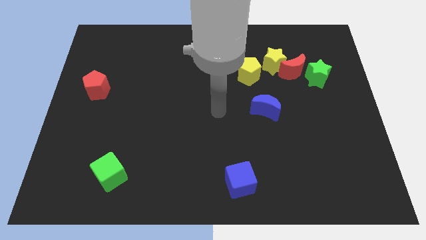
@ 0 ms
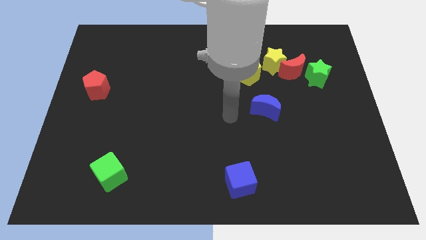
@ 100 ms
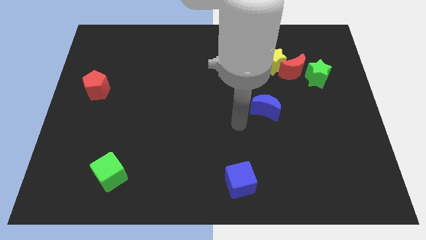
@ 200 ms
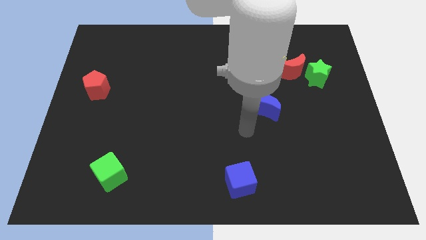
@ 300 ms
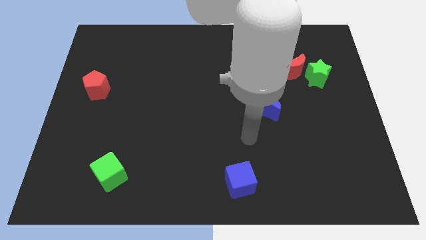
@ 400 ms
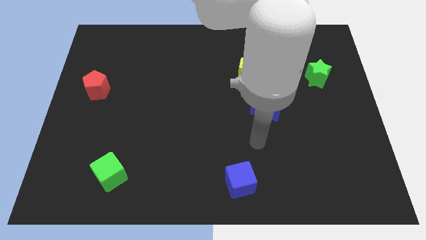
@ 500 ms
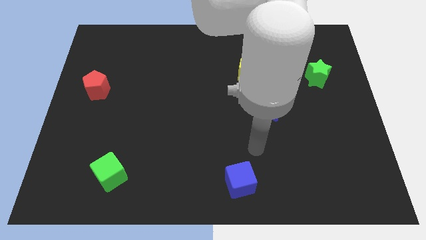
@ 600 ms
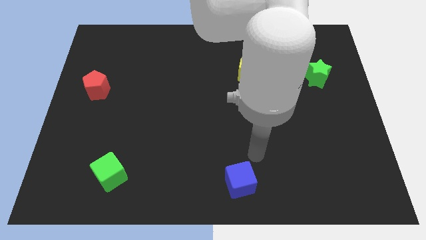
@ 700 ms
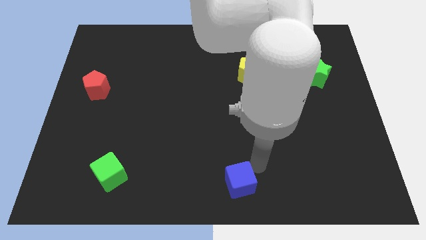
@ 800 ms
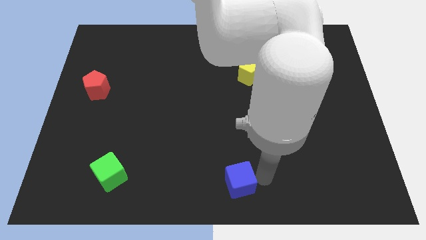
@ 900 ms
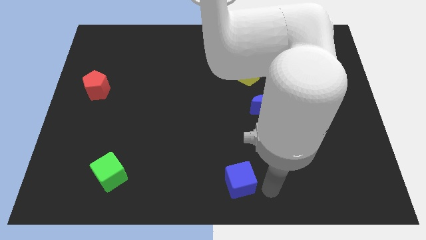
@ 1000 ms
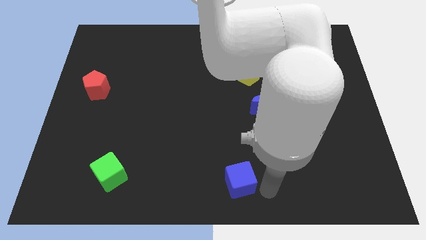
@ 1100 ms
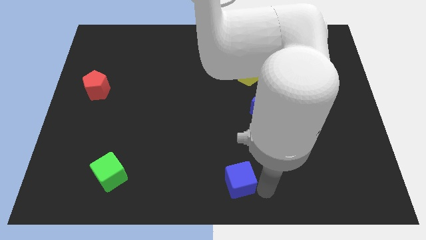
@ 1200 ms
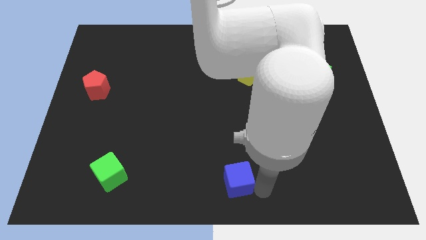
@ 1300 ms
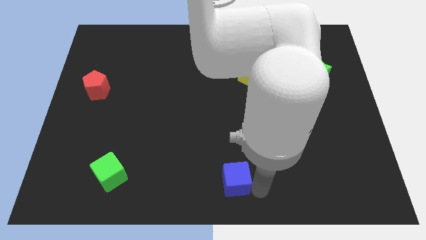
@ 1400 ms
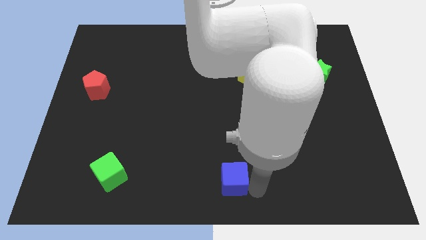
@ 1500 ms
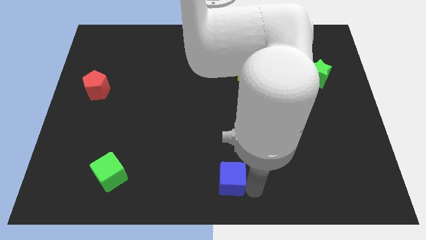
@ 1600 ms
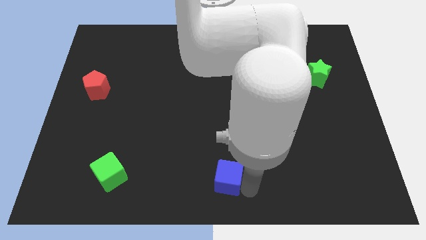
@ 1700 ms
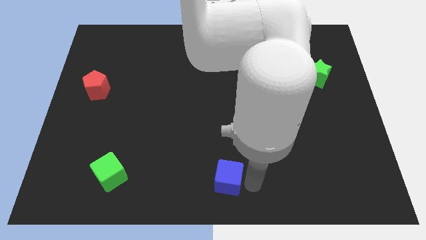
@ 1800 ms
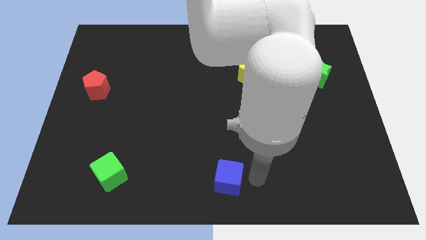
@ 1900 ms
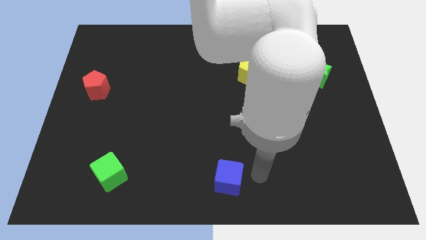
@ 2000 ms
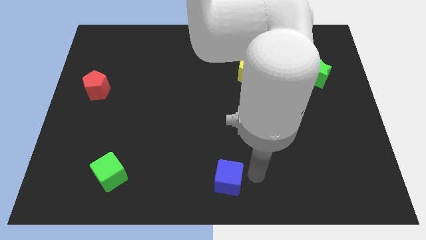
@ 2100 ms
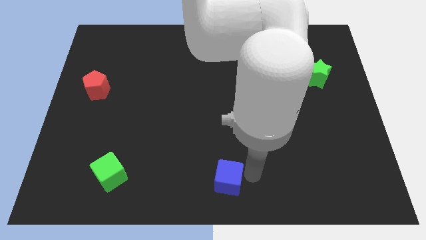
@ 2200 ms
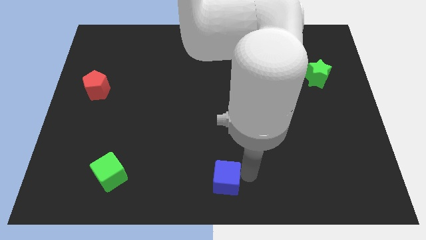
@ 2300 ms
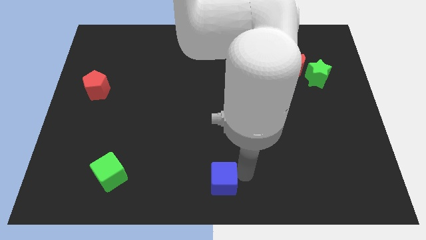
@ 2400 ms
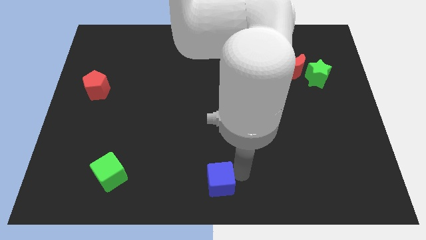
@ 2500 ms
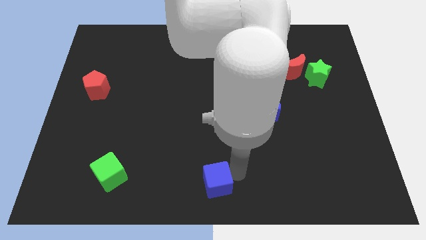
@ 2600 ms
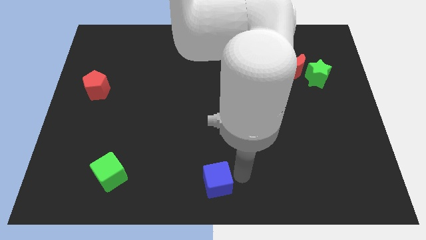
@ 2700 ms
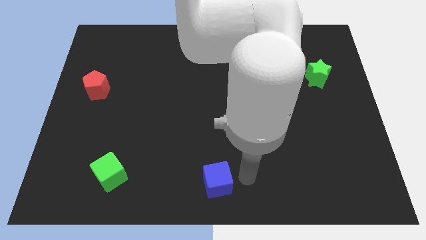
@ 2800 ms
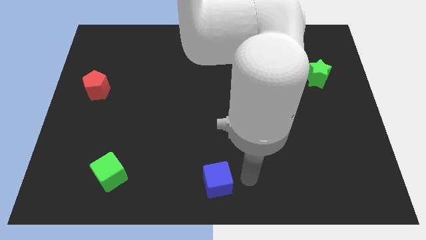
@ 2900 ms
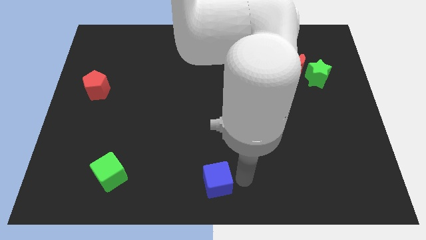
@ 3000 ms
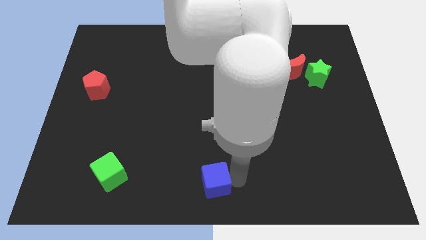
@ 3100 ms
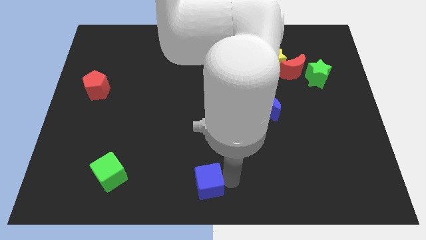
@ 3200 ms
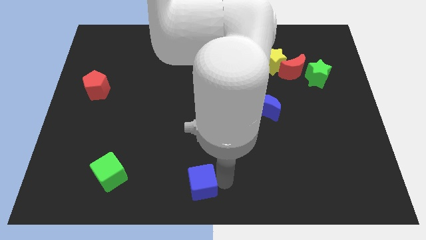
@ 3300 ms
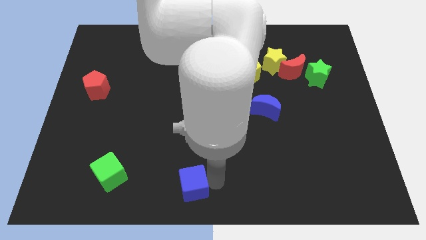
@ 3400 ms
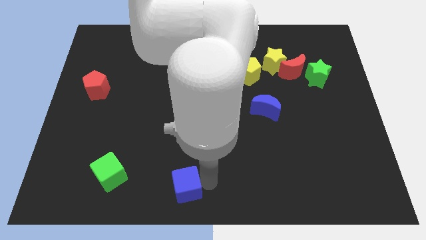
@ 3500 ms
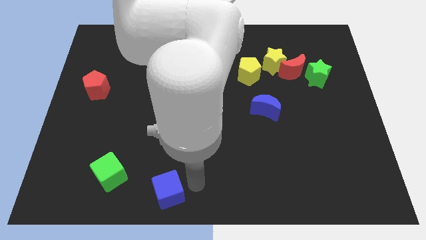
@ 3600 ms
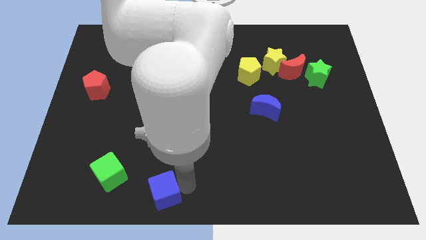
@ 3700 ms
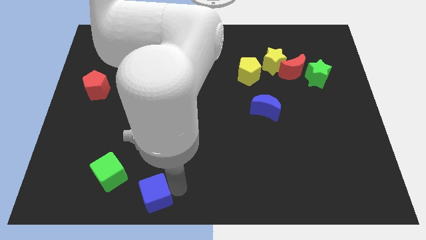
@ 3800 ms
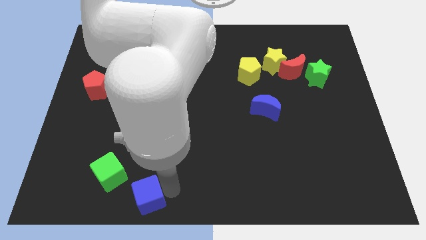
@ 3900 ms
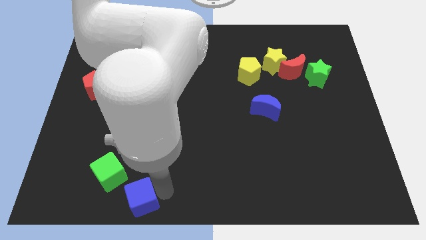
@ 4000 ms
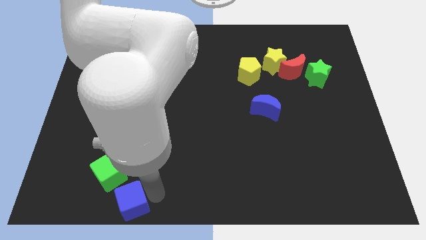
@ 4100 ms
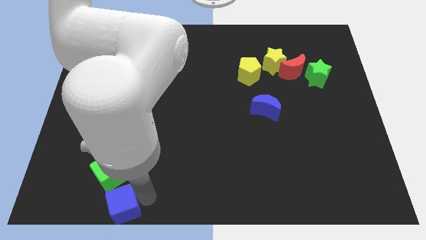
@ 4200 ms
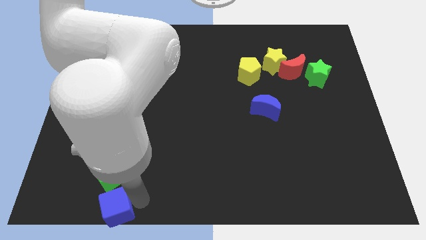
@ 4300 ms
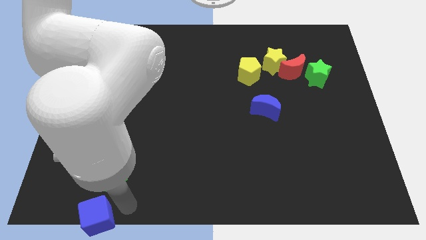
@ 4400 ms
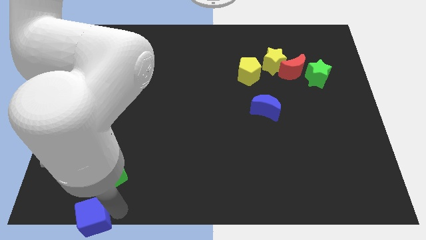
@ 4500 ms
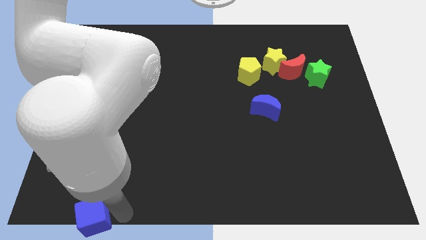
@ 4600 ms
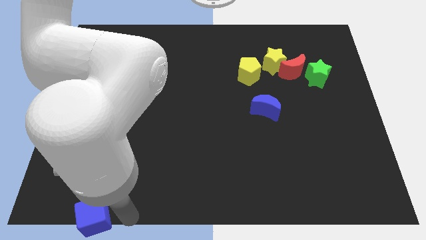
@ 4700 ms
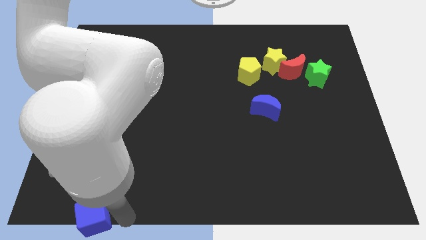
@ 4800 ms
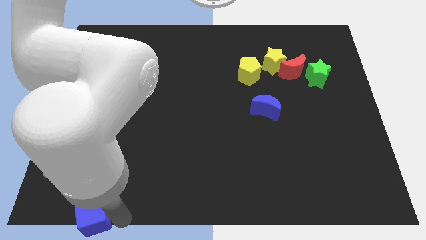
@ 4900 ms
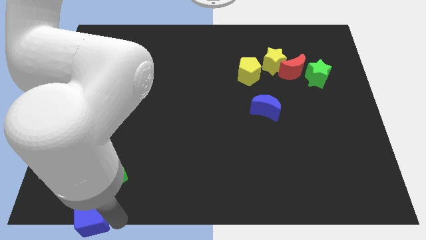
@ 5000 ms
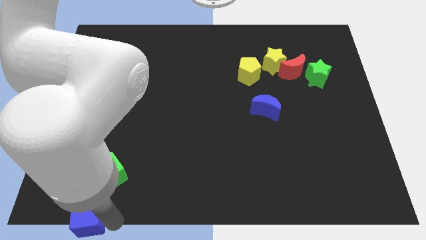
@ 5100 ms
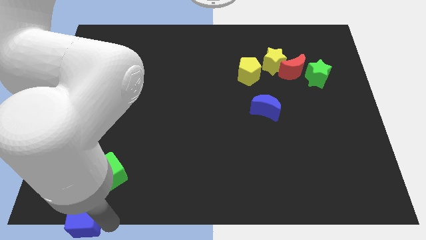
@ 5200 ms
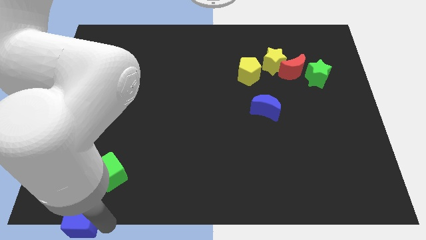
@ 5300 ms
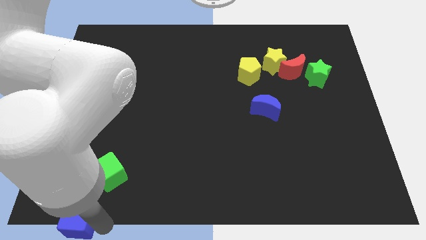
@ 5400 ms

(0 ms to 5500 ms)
move the blue cube to the bottom left of the board

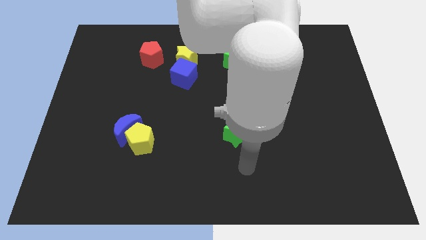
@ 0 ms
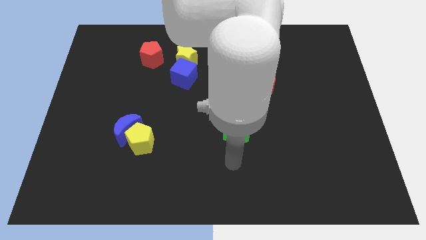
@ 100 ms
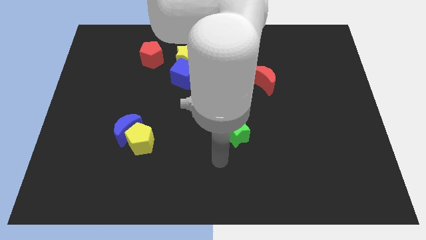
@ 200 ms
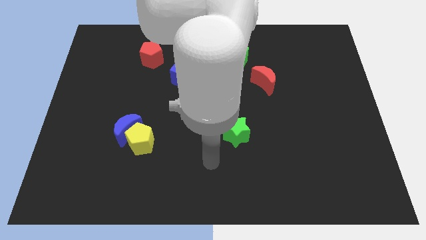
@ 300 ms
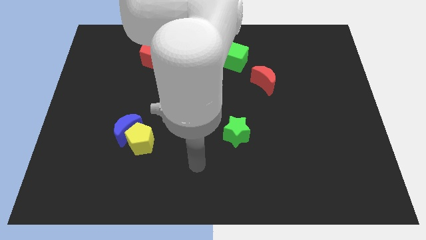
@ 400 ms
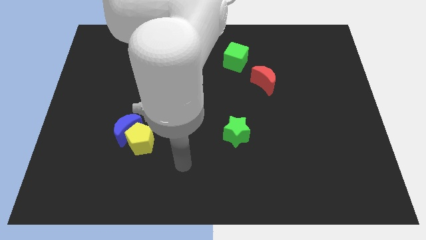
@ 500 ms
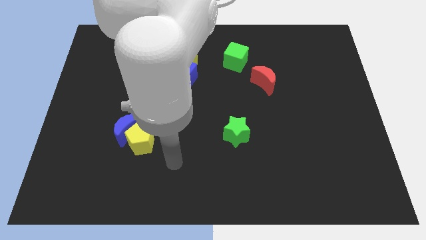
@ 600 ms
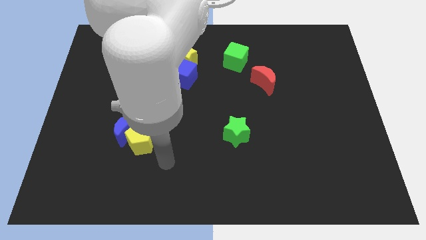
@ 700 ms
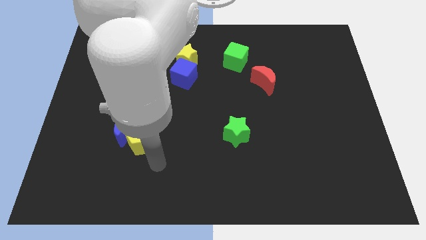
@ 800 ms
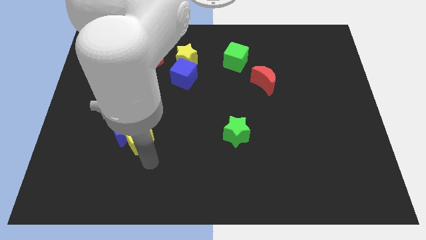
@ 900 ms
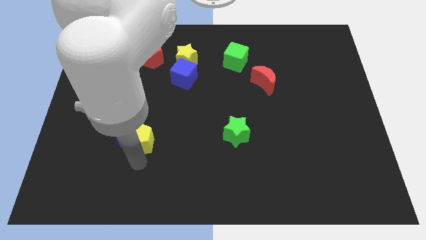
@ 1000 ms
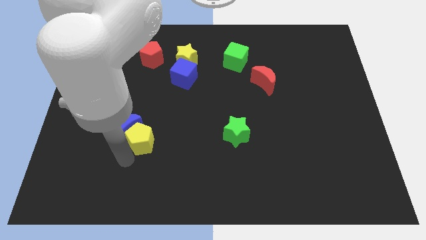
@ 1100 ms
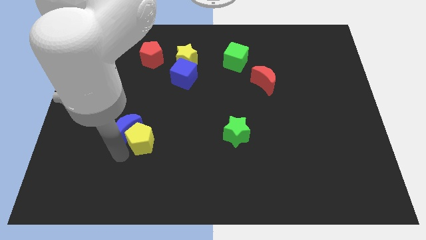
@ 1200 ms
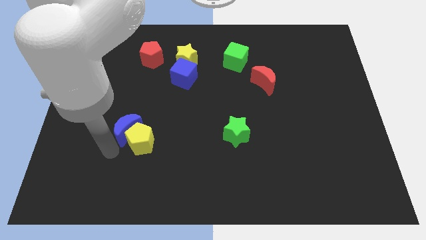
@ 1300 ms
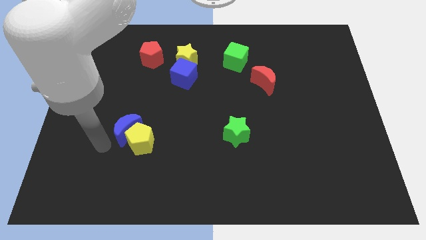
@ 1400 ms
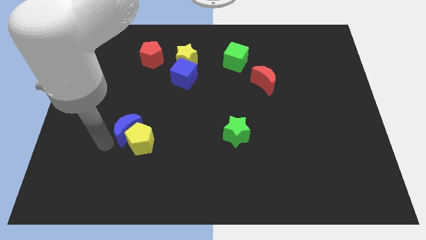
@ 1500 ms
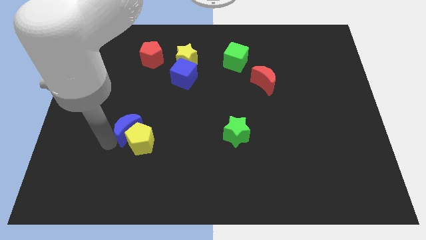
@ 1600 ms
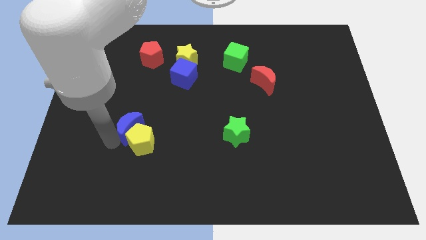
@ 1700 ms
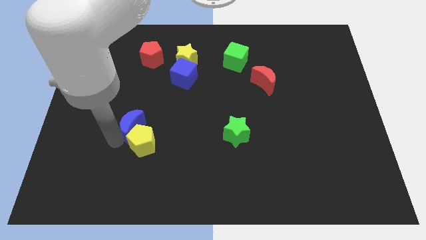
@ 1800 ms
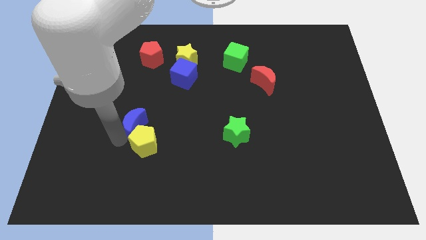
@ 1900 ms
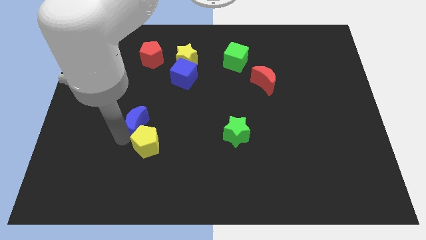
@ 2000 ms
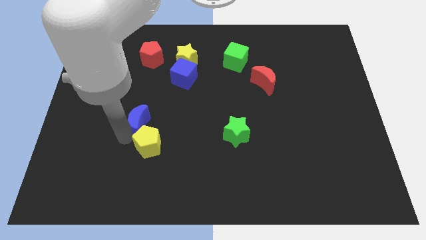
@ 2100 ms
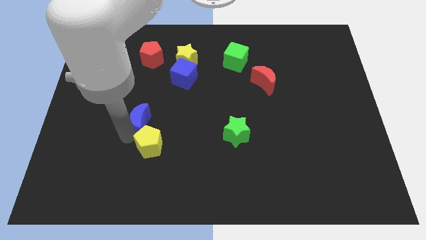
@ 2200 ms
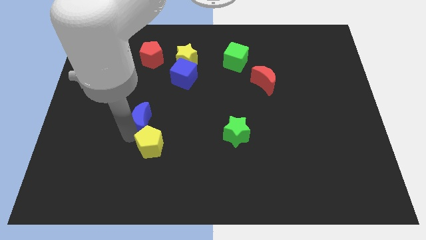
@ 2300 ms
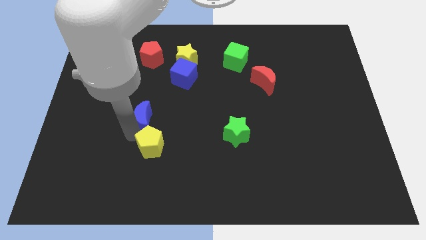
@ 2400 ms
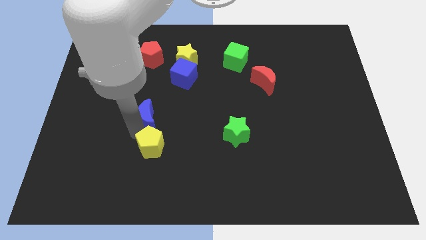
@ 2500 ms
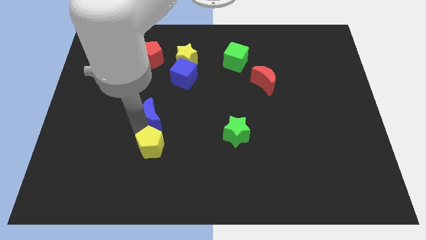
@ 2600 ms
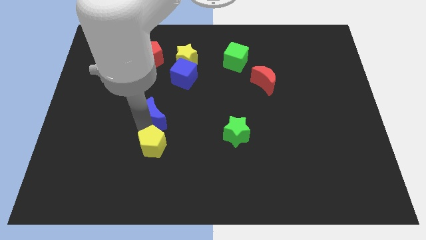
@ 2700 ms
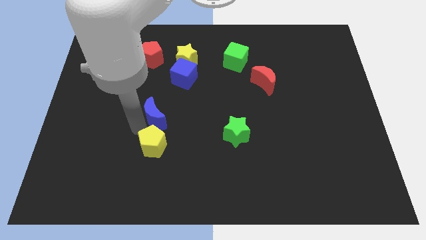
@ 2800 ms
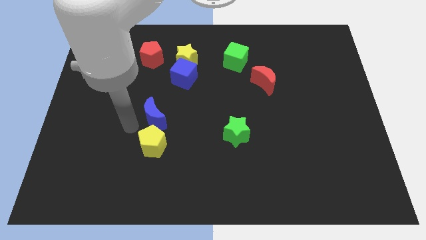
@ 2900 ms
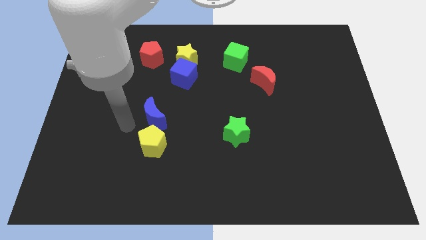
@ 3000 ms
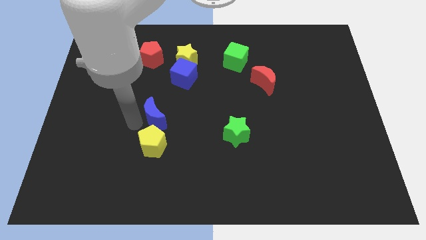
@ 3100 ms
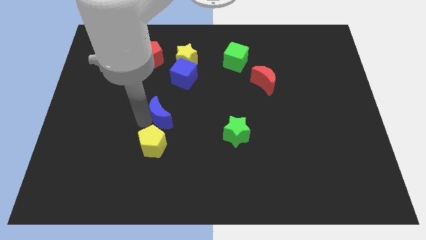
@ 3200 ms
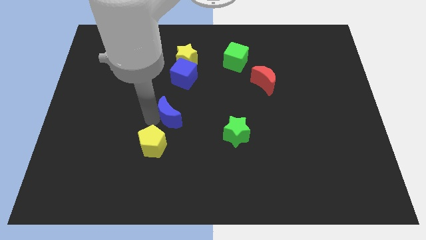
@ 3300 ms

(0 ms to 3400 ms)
push the blue moon to the middle
